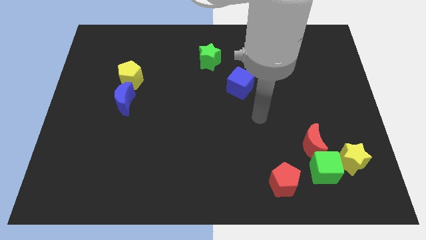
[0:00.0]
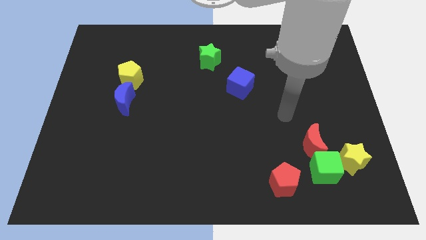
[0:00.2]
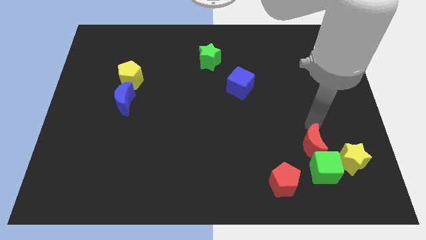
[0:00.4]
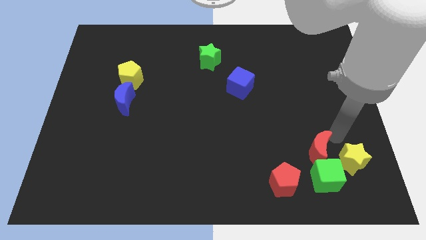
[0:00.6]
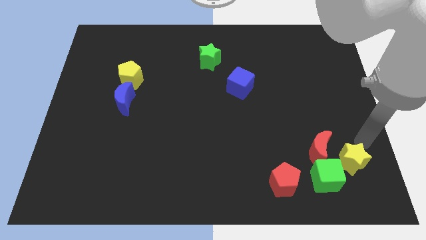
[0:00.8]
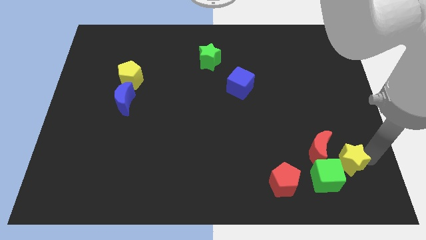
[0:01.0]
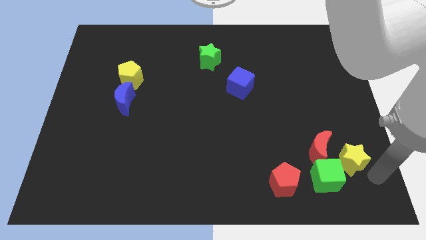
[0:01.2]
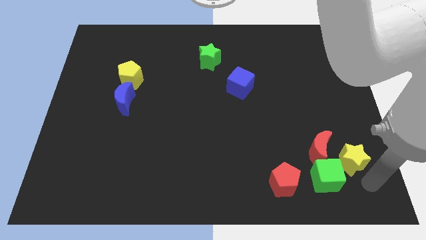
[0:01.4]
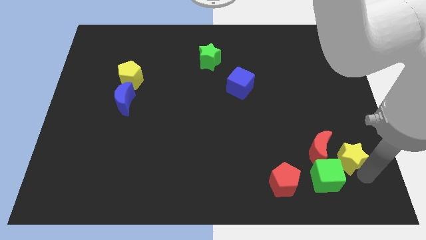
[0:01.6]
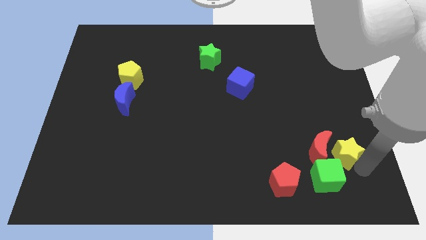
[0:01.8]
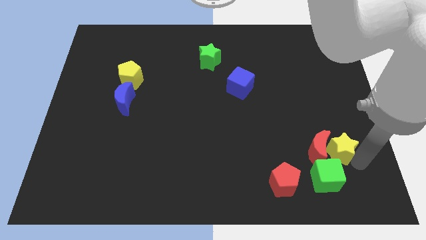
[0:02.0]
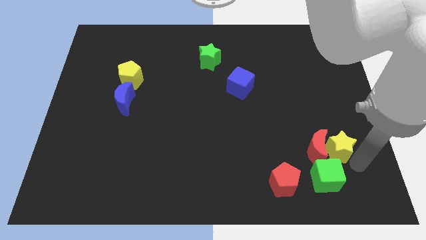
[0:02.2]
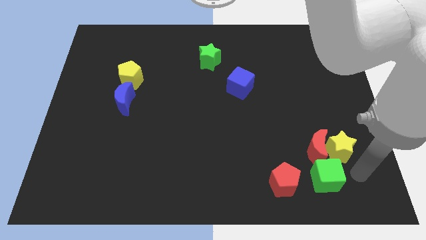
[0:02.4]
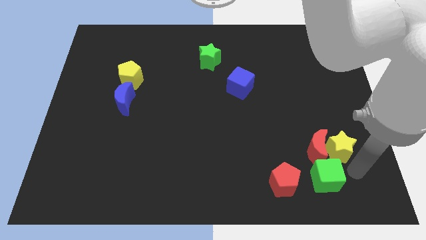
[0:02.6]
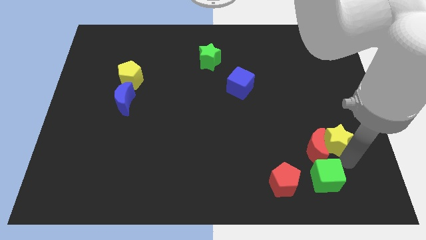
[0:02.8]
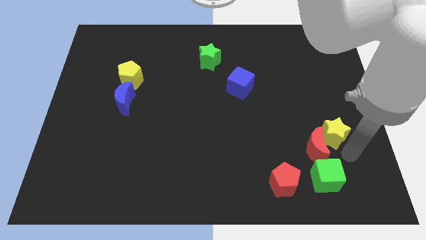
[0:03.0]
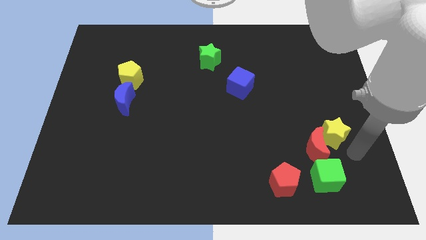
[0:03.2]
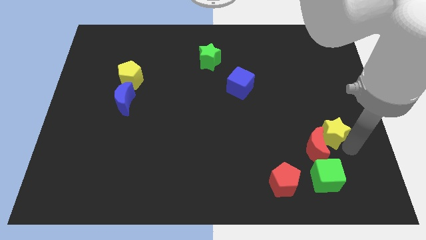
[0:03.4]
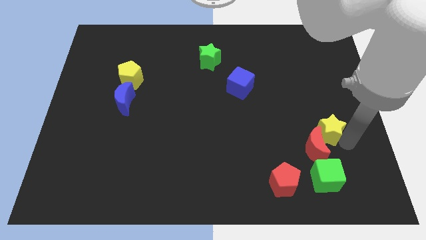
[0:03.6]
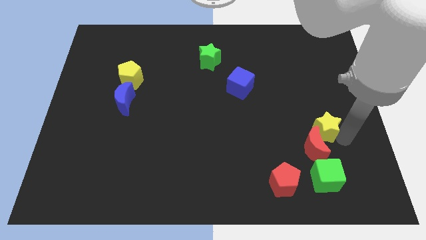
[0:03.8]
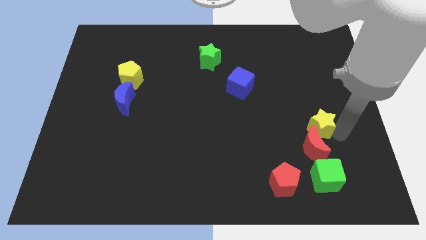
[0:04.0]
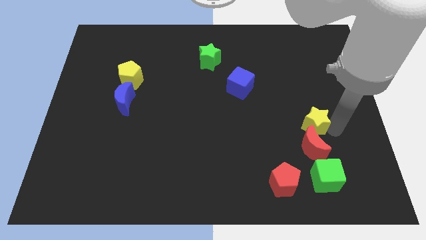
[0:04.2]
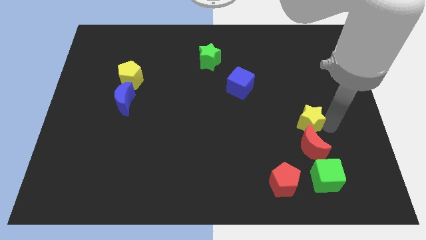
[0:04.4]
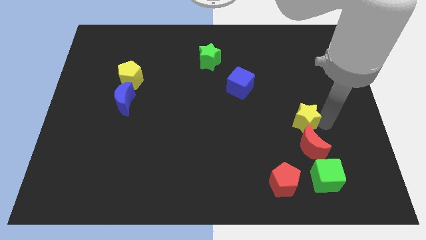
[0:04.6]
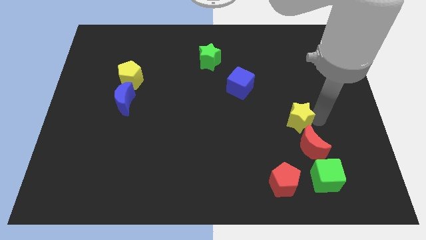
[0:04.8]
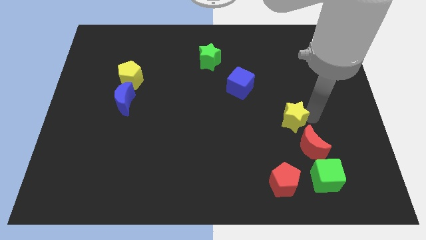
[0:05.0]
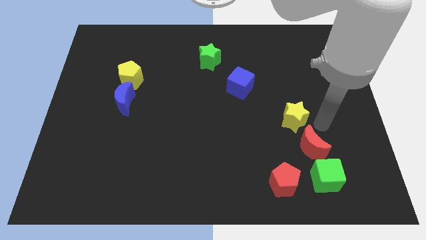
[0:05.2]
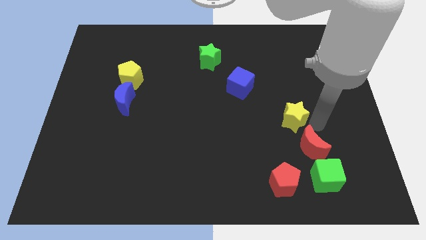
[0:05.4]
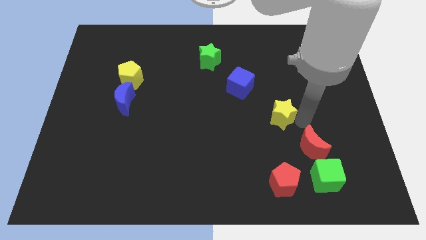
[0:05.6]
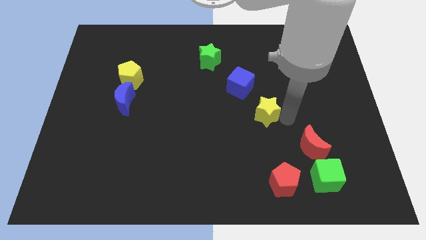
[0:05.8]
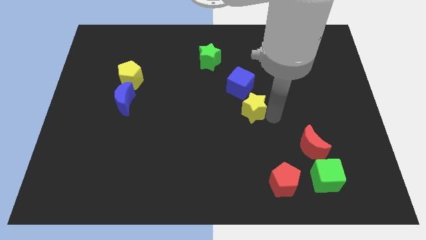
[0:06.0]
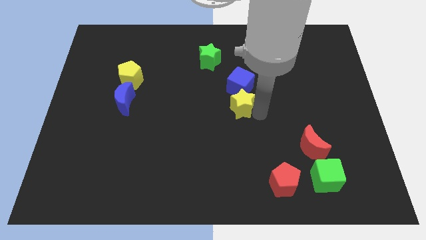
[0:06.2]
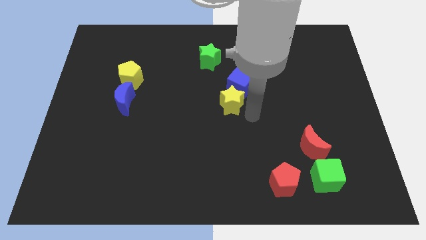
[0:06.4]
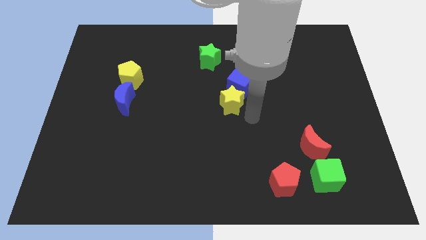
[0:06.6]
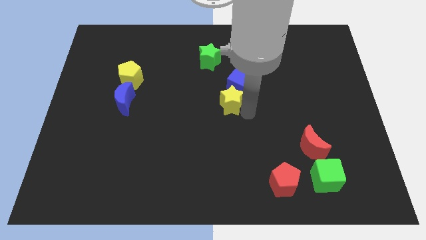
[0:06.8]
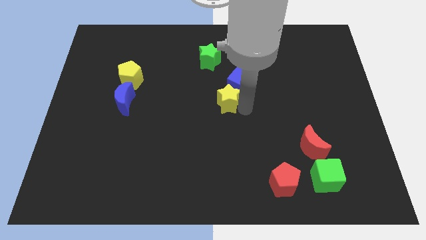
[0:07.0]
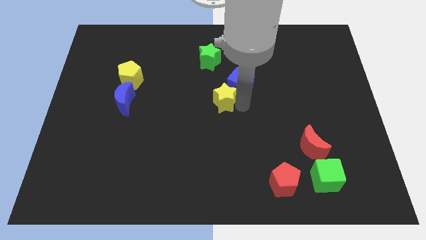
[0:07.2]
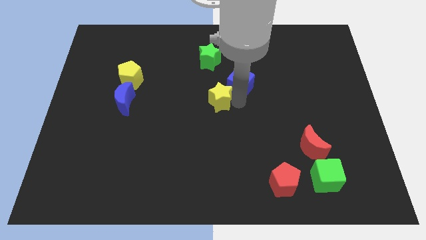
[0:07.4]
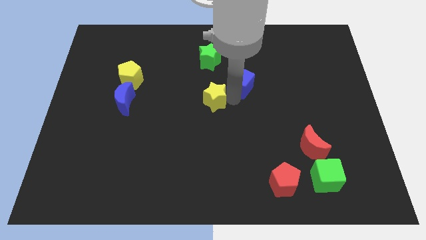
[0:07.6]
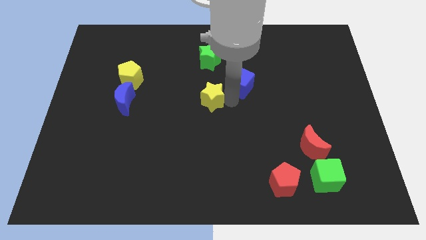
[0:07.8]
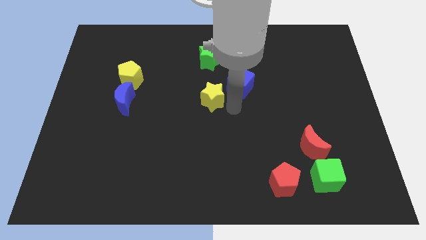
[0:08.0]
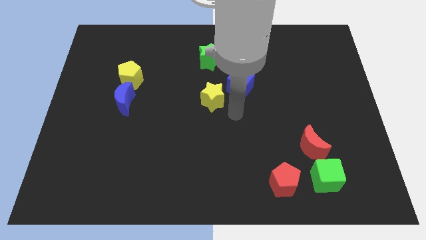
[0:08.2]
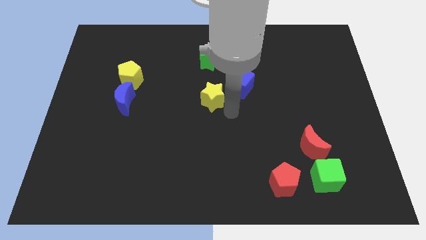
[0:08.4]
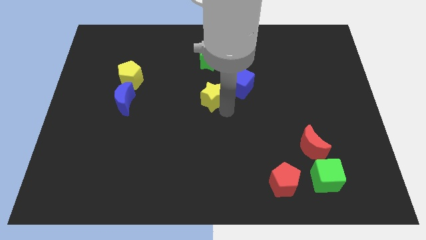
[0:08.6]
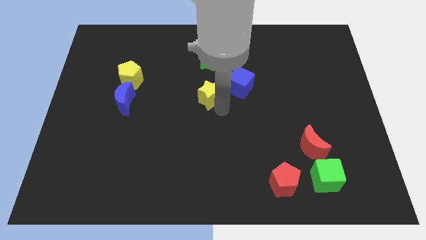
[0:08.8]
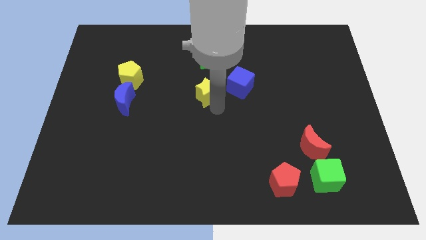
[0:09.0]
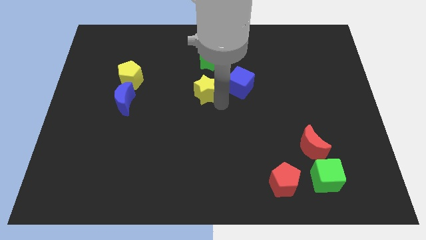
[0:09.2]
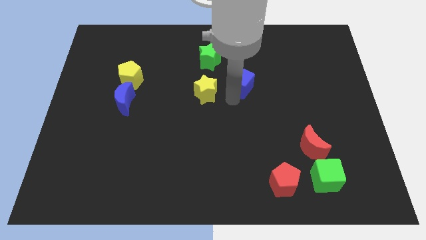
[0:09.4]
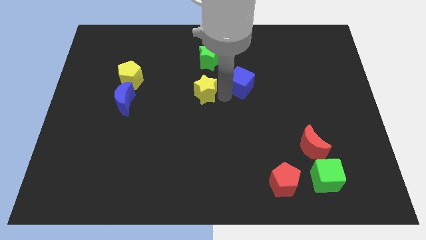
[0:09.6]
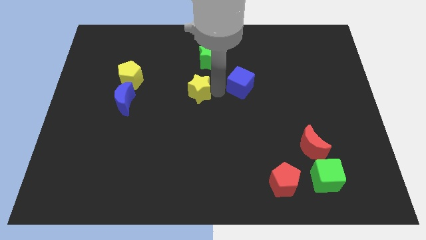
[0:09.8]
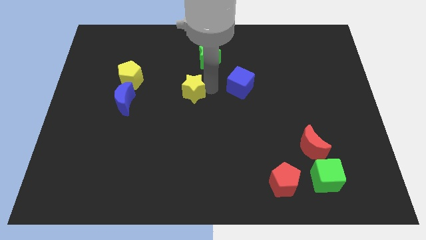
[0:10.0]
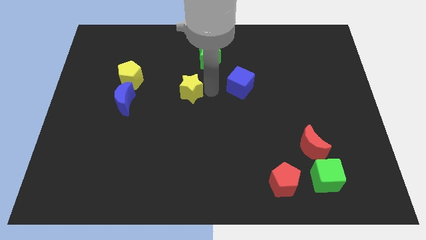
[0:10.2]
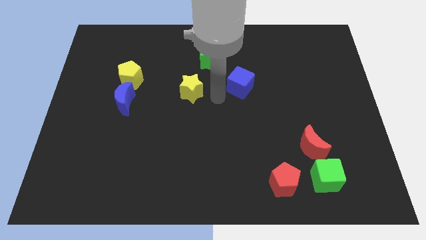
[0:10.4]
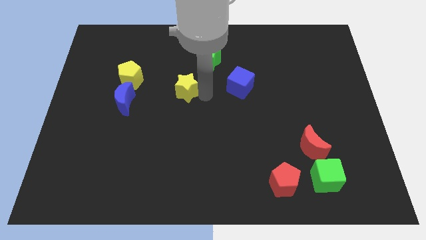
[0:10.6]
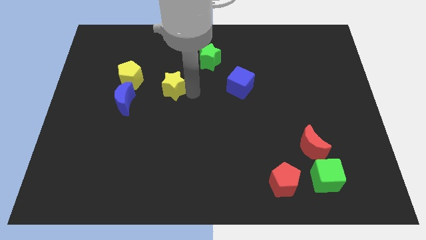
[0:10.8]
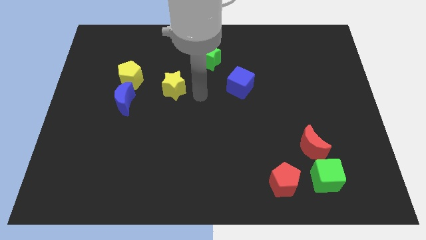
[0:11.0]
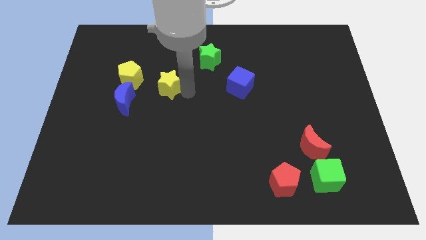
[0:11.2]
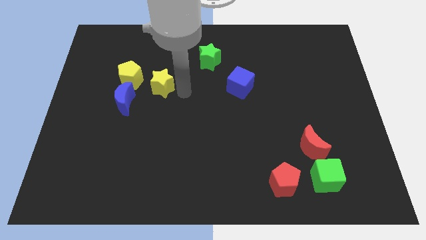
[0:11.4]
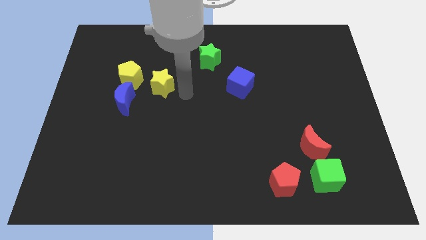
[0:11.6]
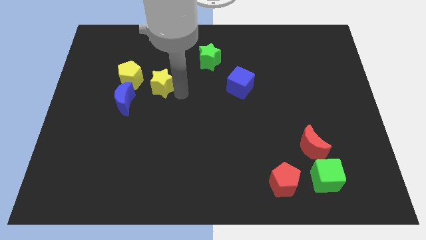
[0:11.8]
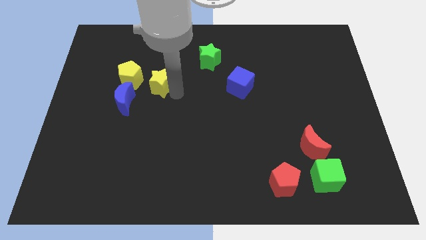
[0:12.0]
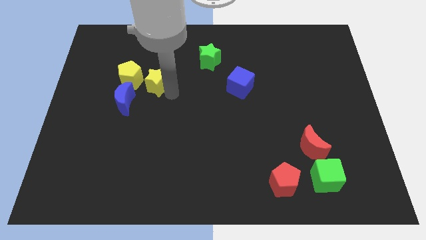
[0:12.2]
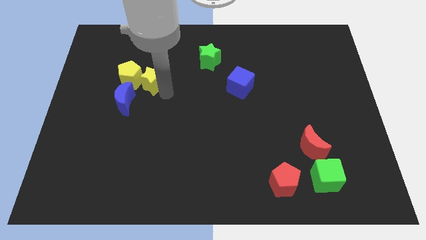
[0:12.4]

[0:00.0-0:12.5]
push the yellow star next to the yellow pentagon
